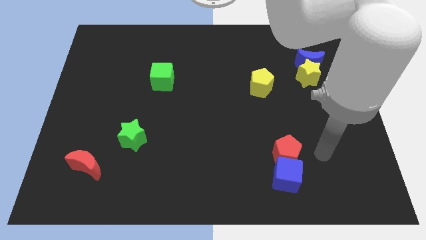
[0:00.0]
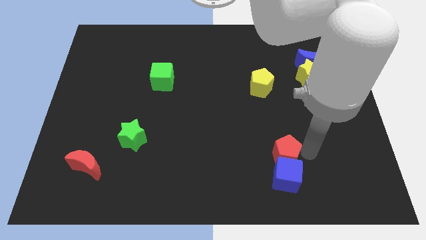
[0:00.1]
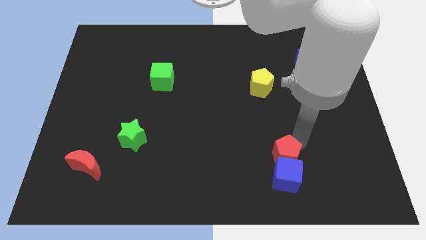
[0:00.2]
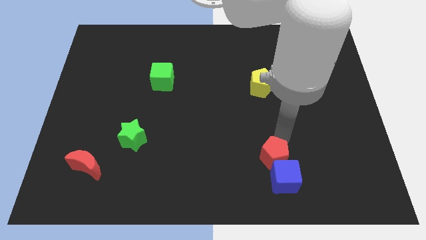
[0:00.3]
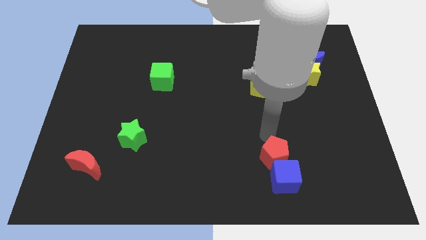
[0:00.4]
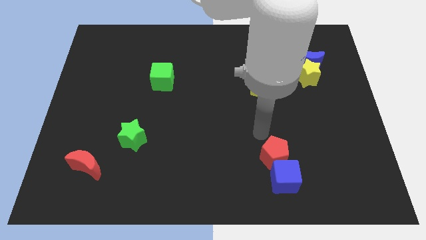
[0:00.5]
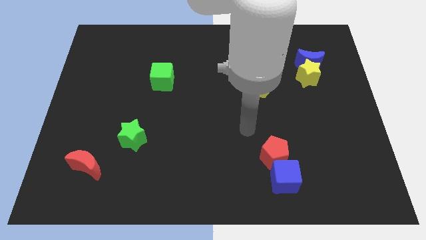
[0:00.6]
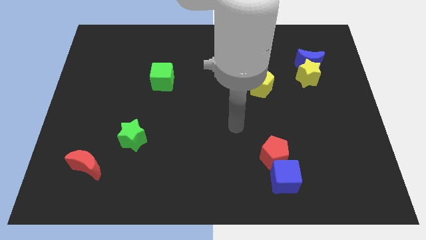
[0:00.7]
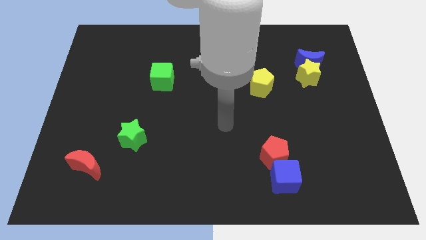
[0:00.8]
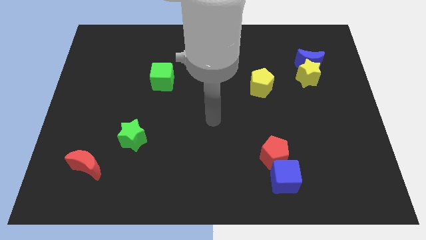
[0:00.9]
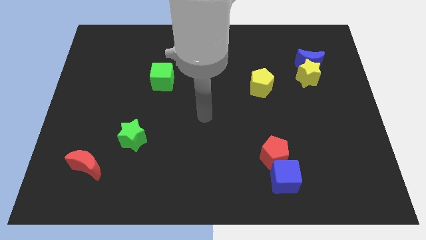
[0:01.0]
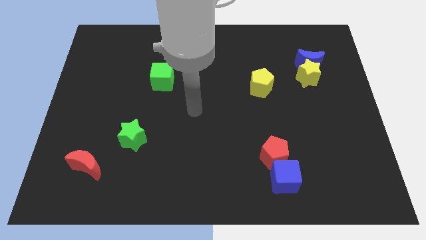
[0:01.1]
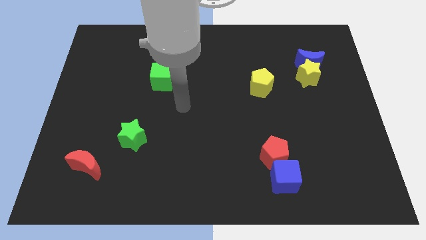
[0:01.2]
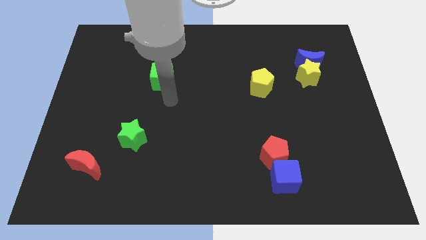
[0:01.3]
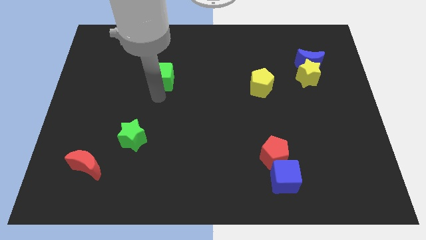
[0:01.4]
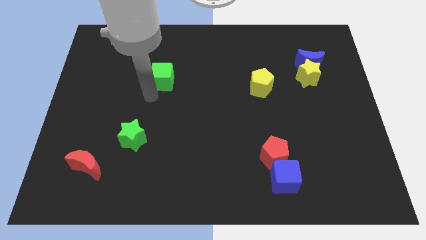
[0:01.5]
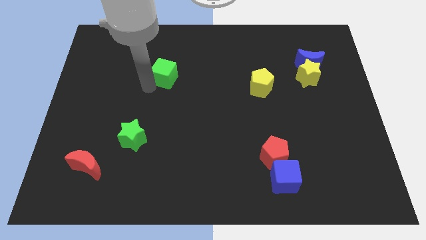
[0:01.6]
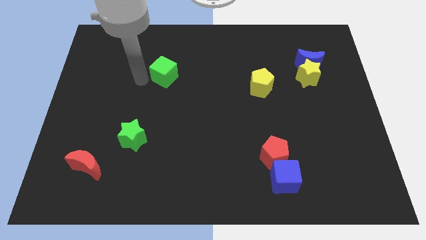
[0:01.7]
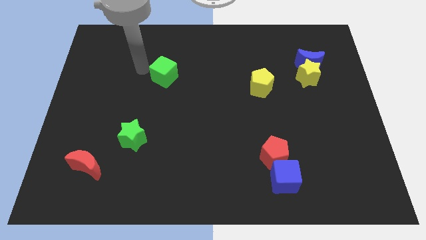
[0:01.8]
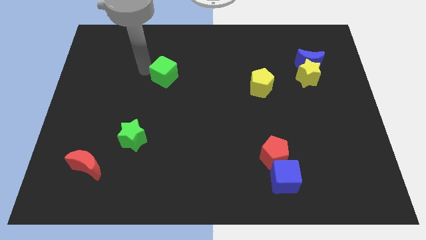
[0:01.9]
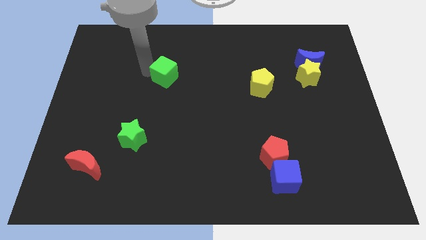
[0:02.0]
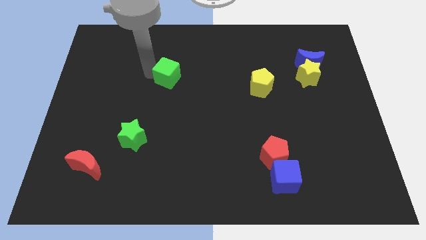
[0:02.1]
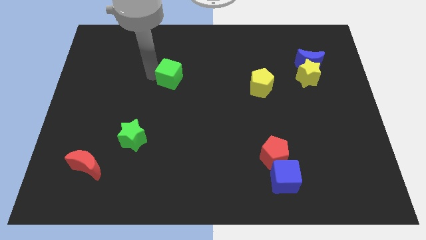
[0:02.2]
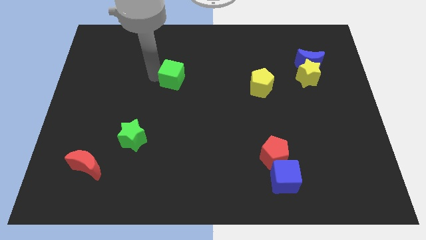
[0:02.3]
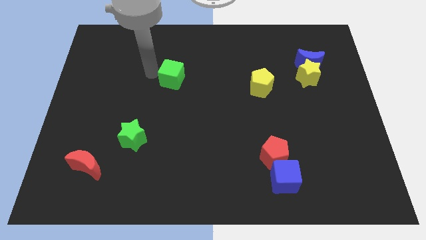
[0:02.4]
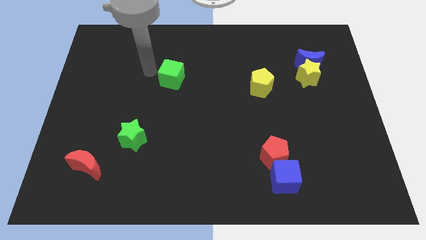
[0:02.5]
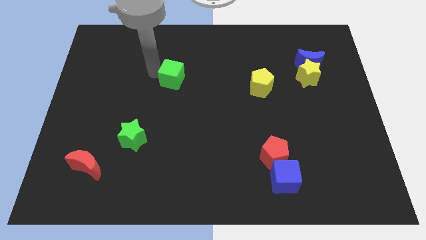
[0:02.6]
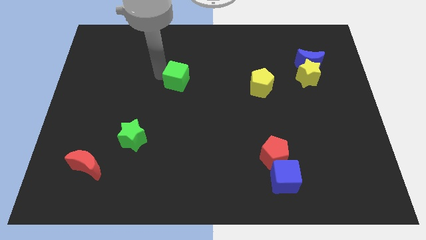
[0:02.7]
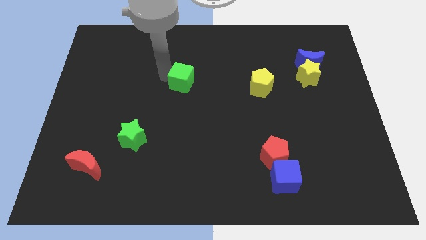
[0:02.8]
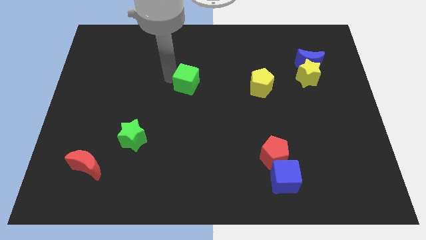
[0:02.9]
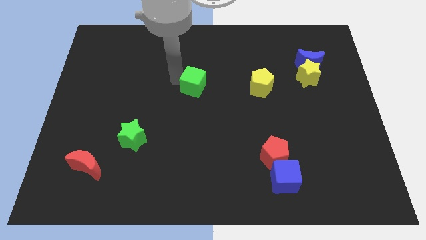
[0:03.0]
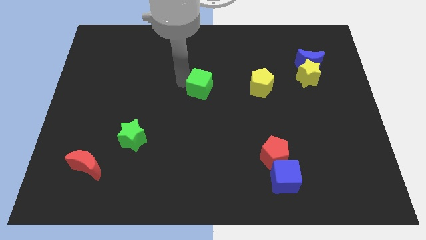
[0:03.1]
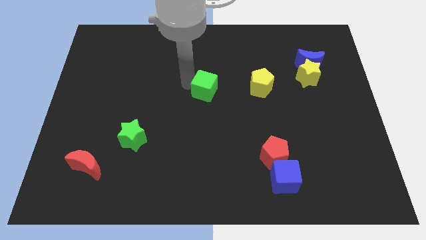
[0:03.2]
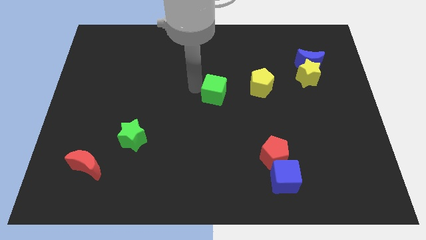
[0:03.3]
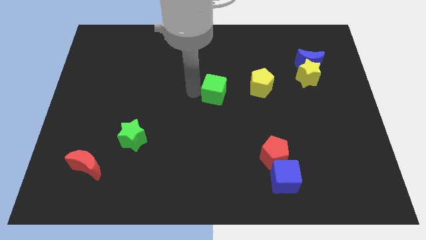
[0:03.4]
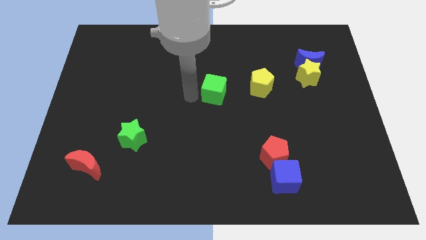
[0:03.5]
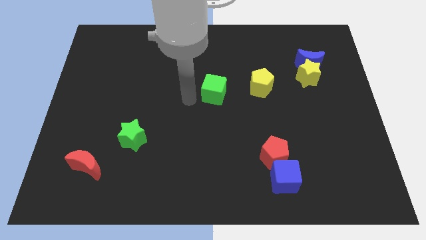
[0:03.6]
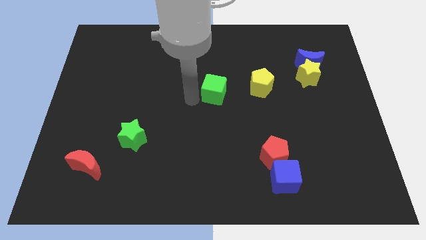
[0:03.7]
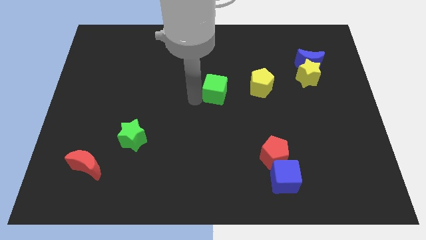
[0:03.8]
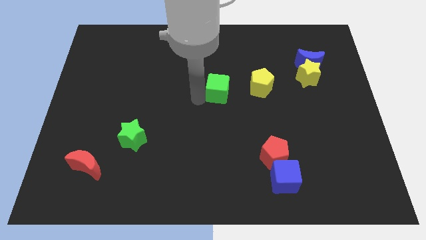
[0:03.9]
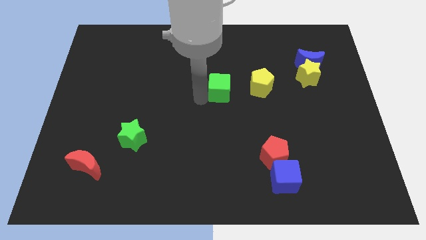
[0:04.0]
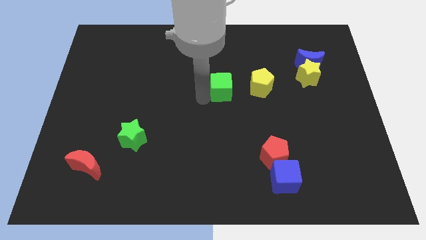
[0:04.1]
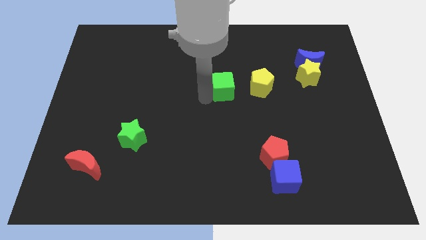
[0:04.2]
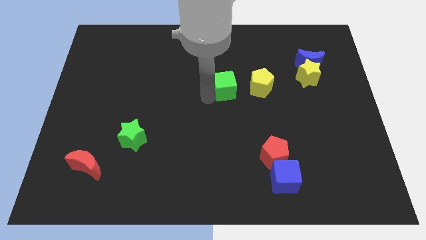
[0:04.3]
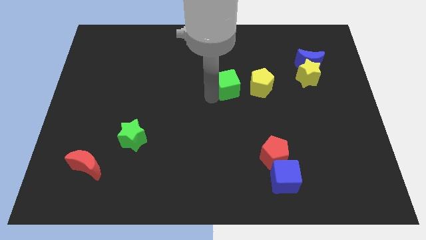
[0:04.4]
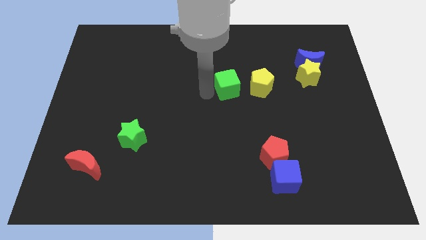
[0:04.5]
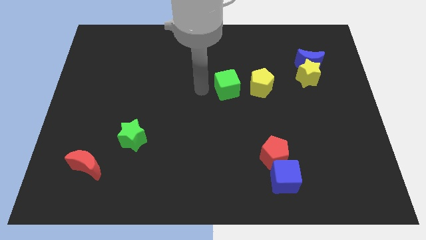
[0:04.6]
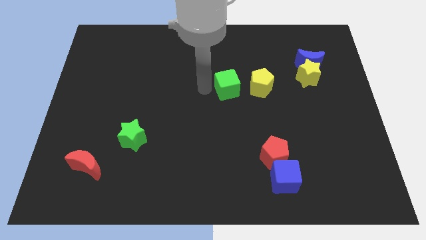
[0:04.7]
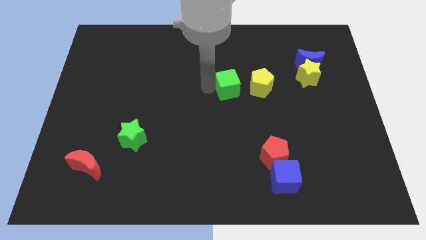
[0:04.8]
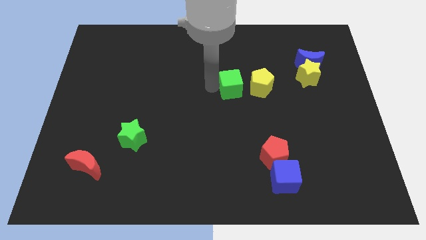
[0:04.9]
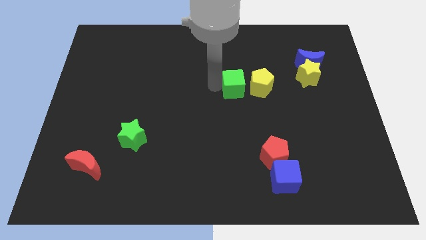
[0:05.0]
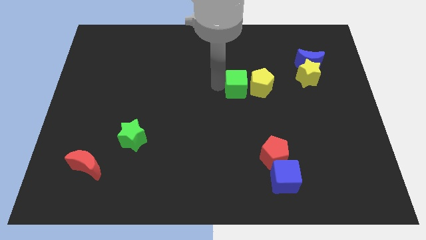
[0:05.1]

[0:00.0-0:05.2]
put the green cube close to the yellow pentagon

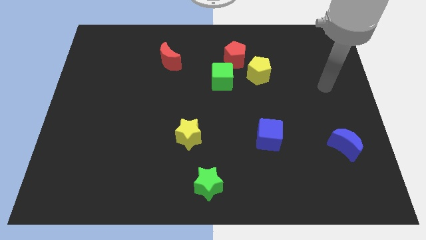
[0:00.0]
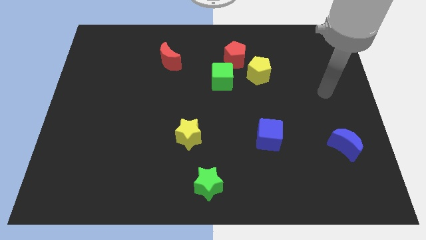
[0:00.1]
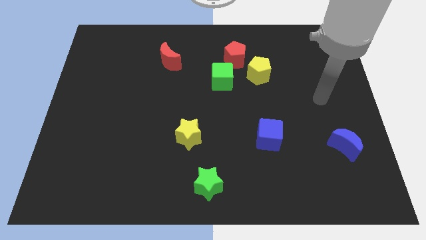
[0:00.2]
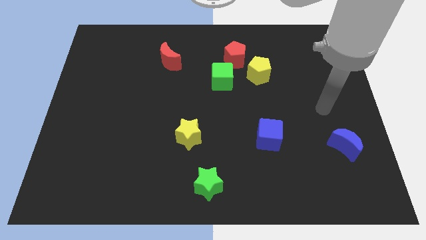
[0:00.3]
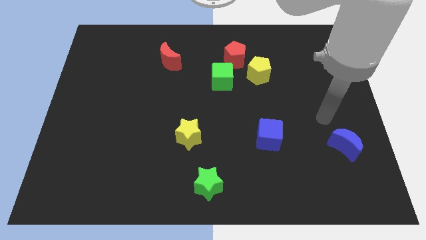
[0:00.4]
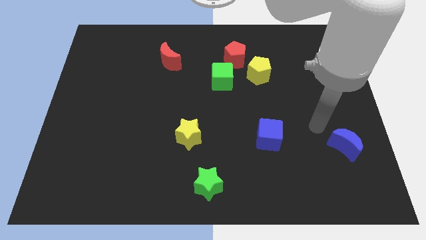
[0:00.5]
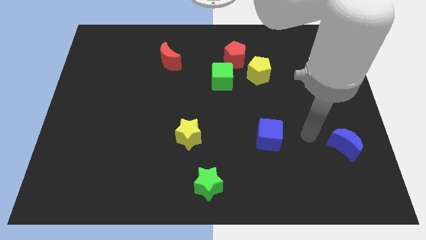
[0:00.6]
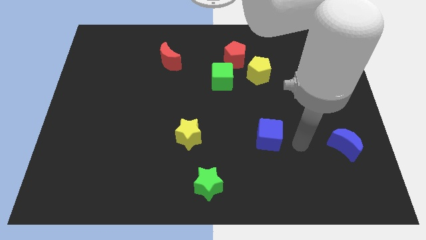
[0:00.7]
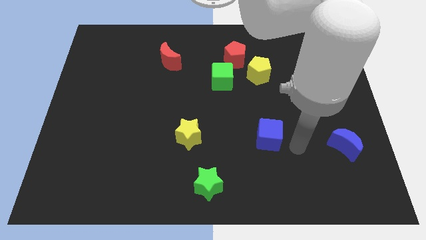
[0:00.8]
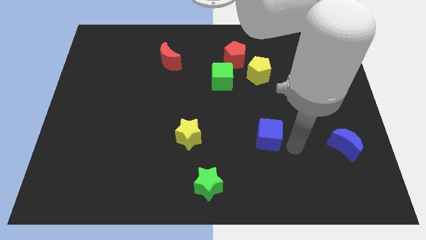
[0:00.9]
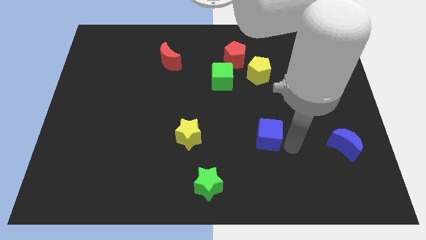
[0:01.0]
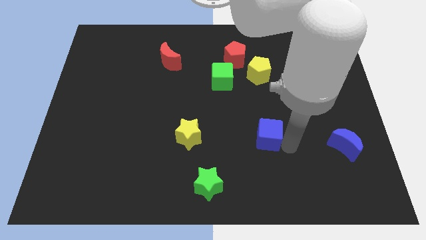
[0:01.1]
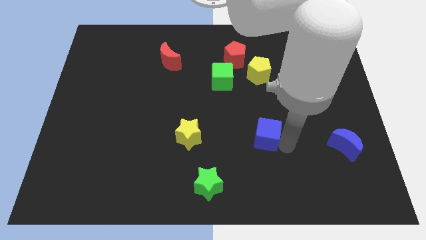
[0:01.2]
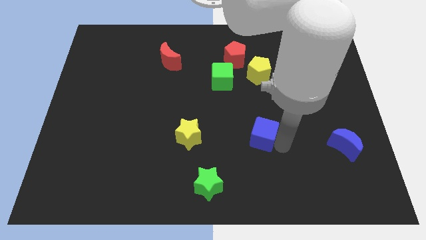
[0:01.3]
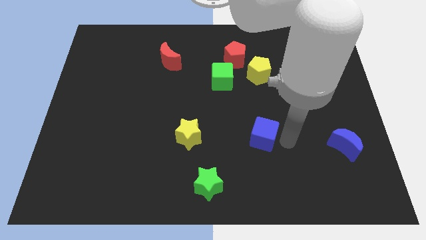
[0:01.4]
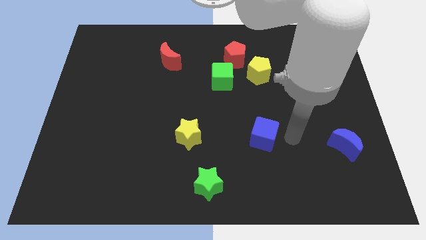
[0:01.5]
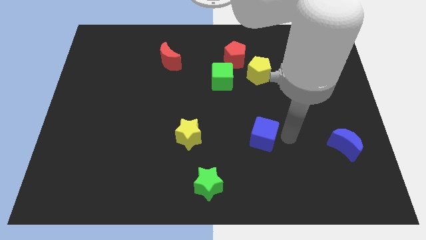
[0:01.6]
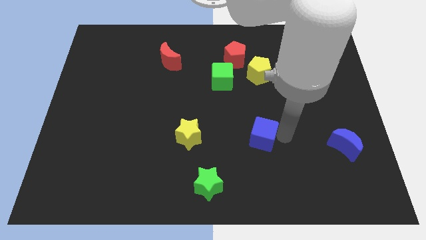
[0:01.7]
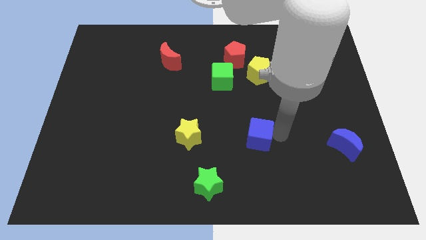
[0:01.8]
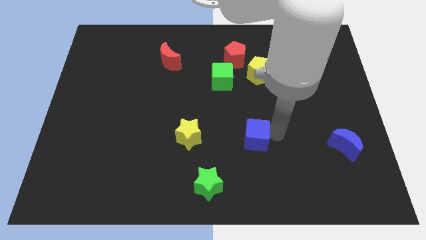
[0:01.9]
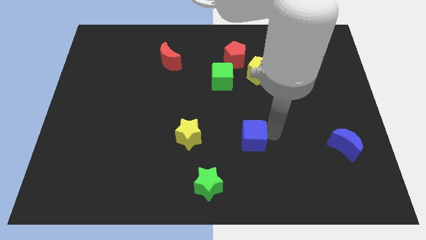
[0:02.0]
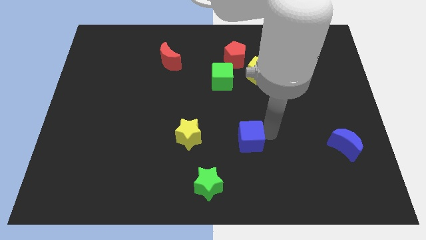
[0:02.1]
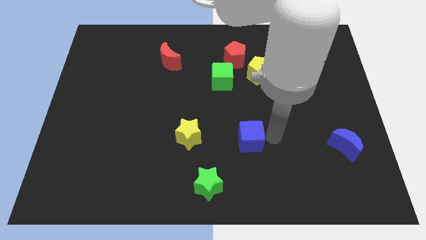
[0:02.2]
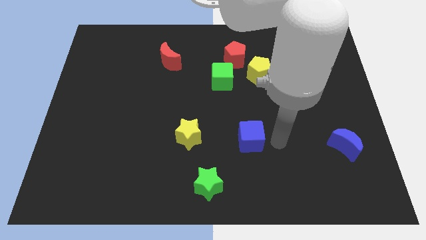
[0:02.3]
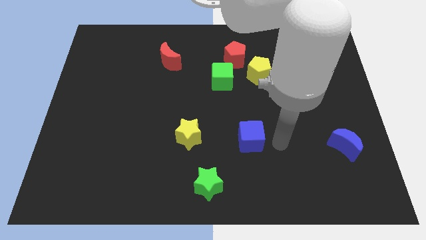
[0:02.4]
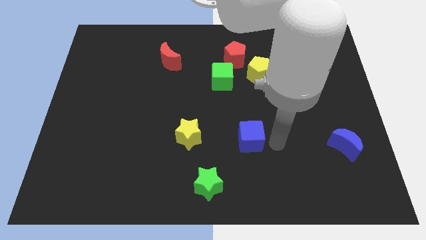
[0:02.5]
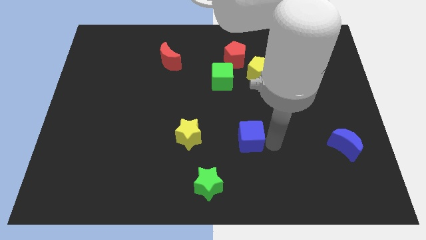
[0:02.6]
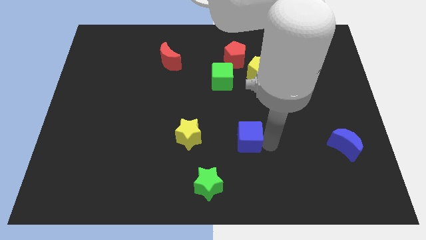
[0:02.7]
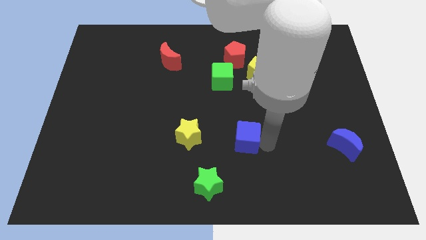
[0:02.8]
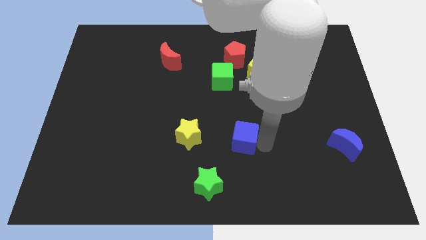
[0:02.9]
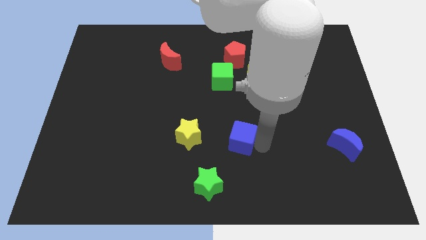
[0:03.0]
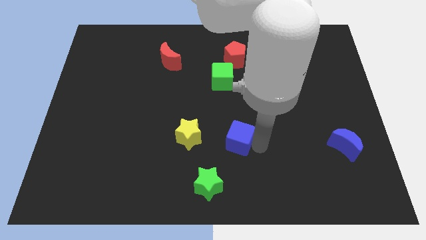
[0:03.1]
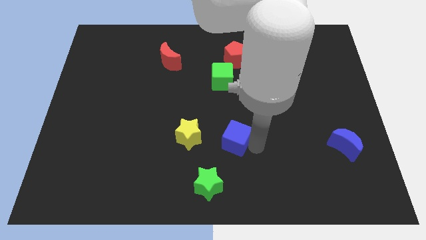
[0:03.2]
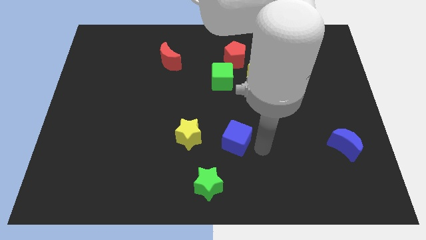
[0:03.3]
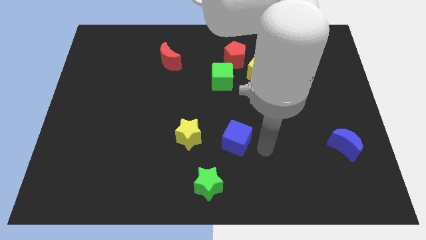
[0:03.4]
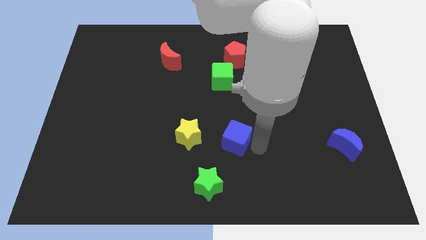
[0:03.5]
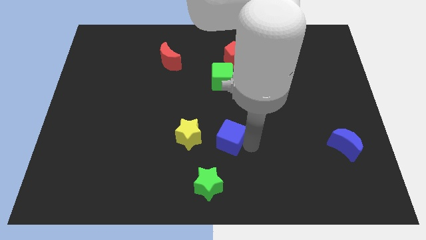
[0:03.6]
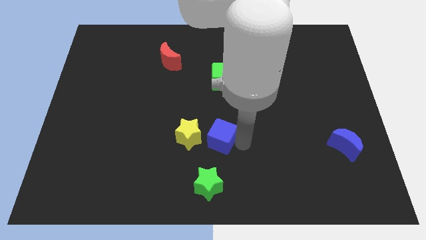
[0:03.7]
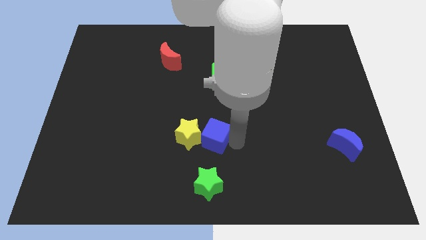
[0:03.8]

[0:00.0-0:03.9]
slide the blue cube next to the yellow star
